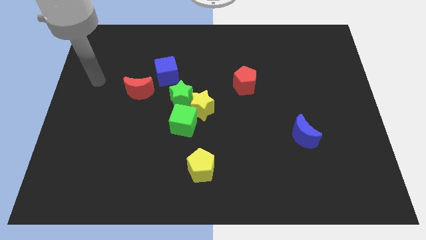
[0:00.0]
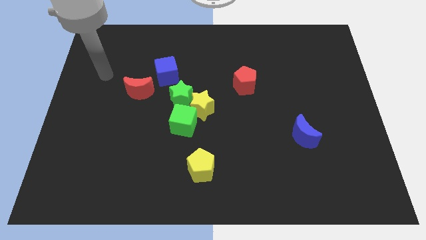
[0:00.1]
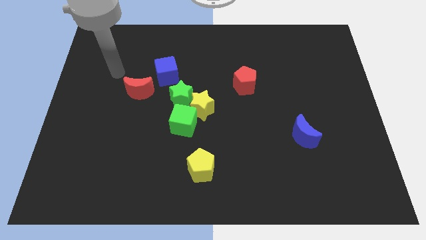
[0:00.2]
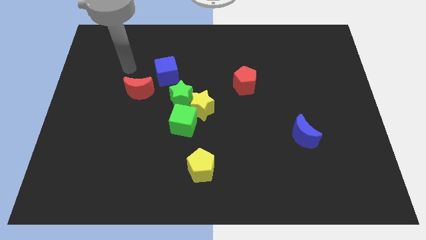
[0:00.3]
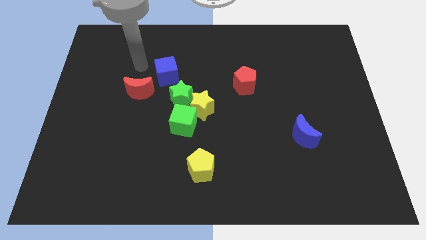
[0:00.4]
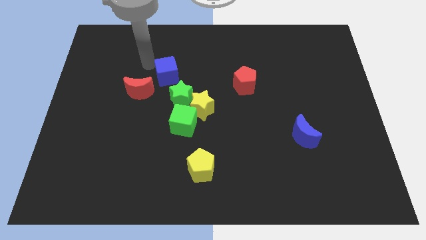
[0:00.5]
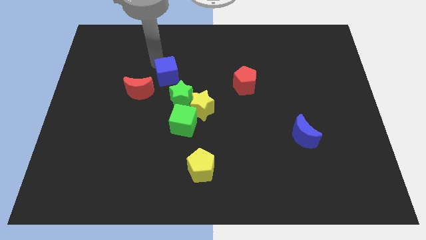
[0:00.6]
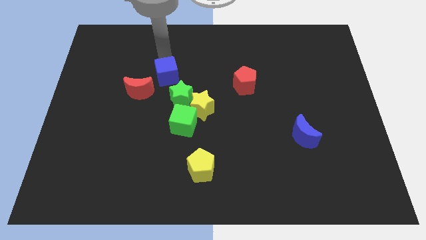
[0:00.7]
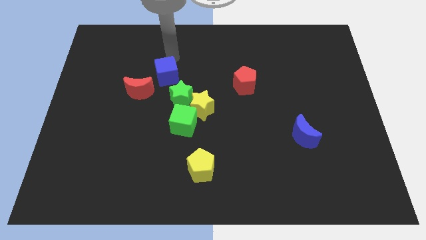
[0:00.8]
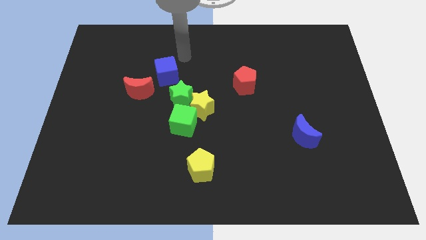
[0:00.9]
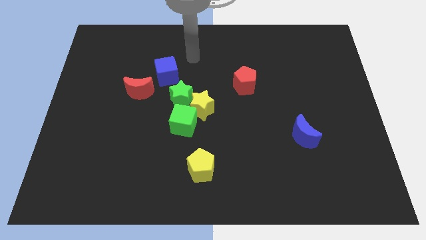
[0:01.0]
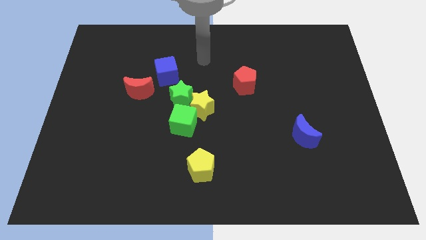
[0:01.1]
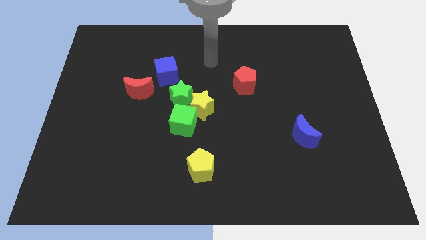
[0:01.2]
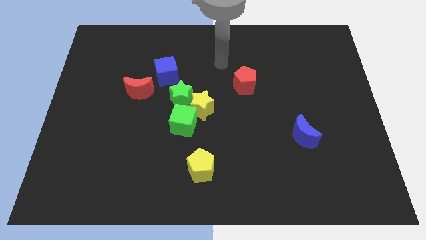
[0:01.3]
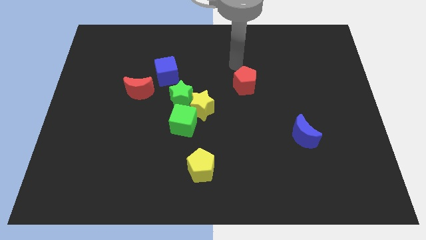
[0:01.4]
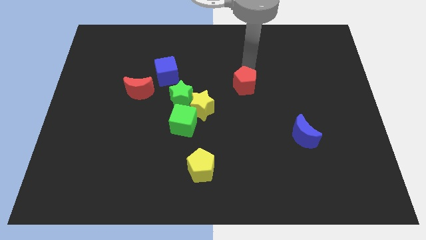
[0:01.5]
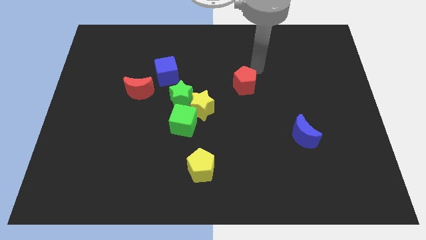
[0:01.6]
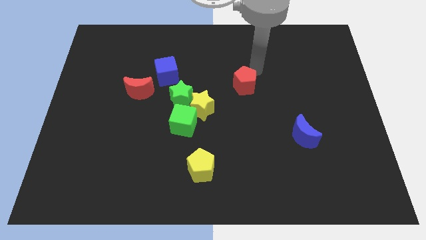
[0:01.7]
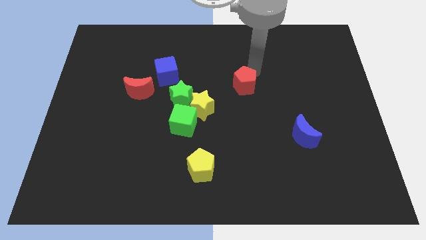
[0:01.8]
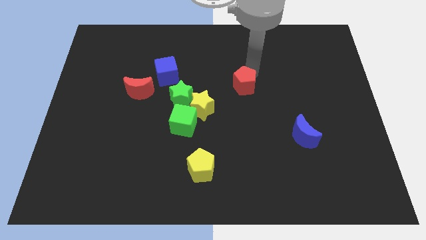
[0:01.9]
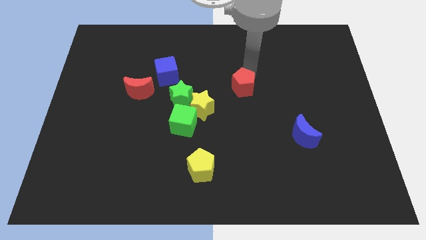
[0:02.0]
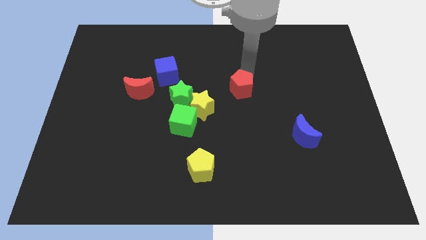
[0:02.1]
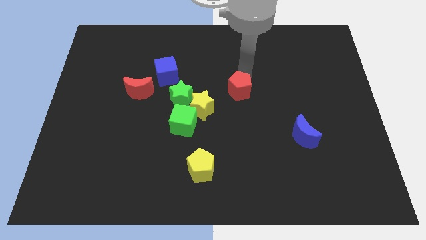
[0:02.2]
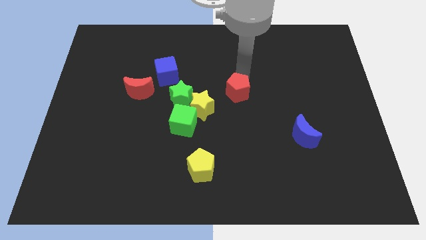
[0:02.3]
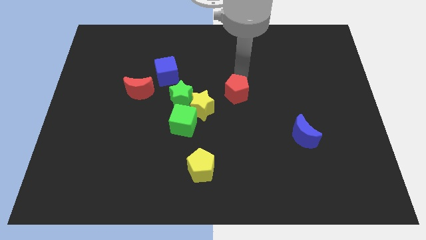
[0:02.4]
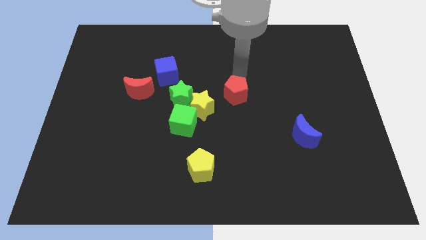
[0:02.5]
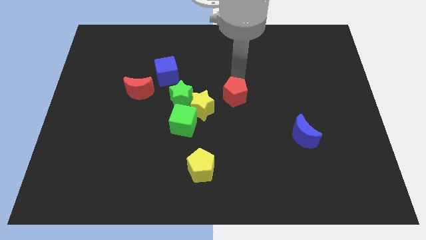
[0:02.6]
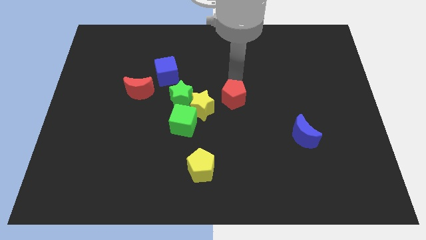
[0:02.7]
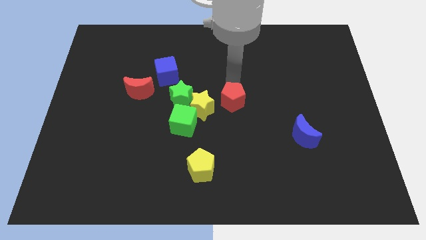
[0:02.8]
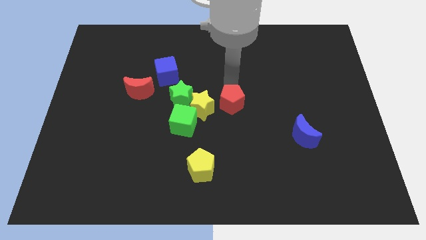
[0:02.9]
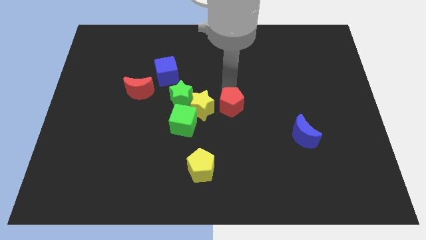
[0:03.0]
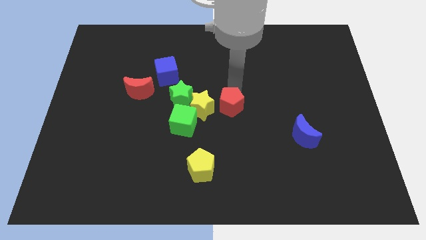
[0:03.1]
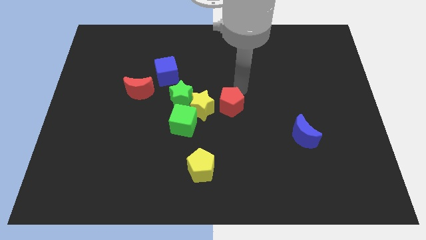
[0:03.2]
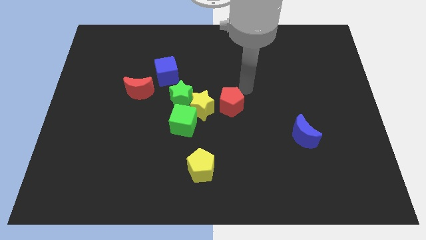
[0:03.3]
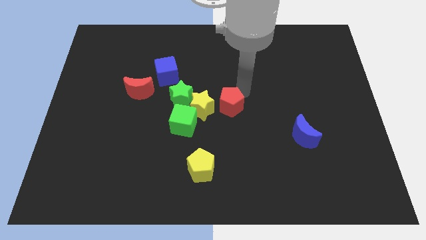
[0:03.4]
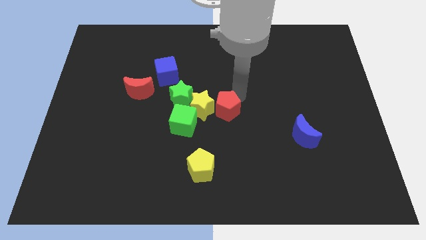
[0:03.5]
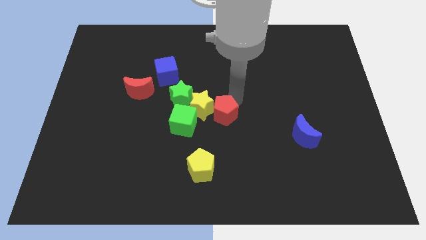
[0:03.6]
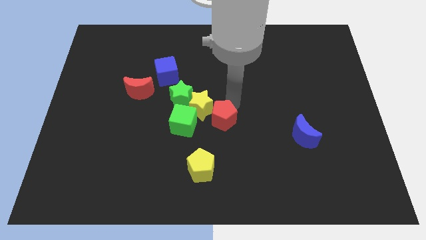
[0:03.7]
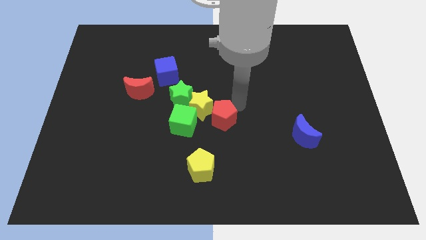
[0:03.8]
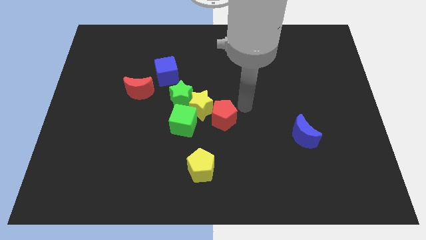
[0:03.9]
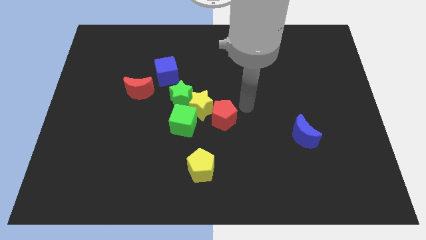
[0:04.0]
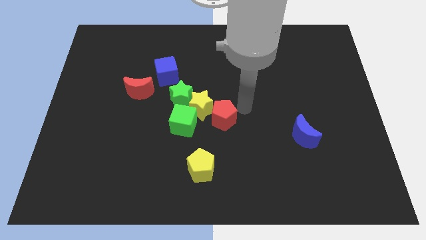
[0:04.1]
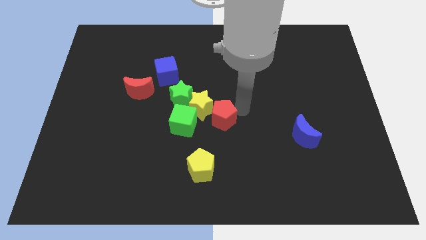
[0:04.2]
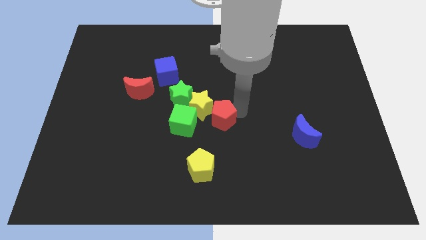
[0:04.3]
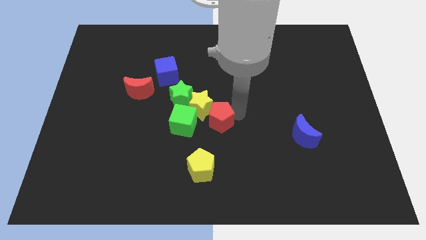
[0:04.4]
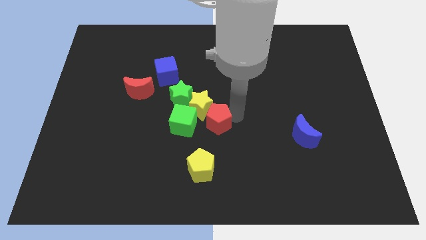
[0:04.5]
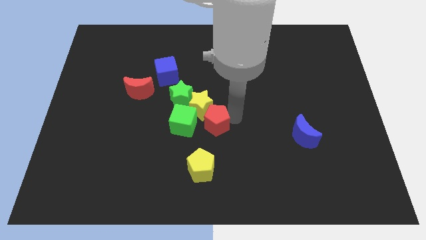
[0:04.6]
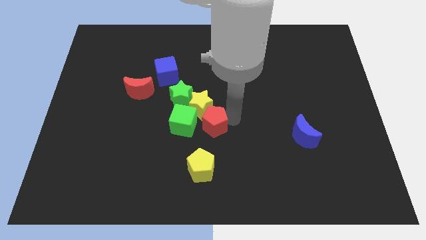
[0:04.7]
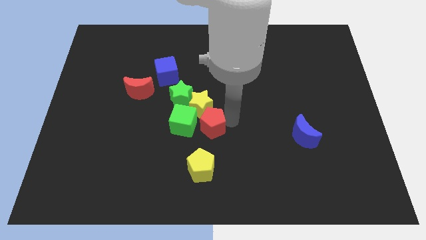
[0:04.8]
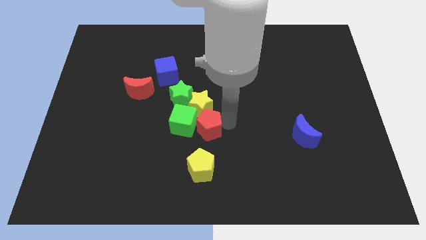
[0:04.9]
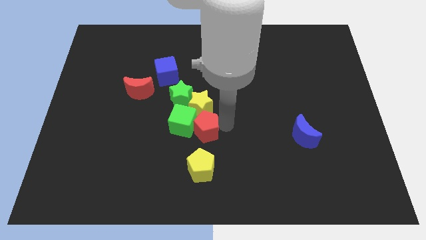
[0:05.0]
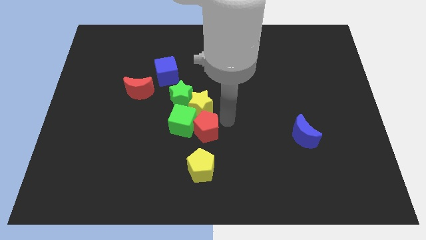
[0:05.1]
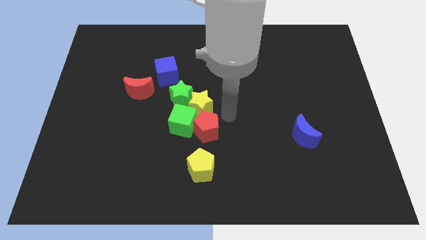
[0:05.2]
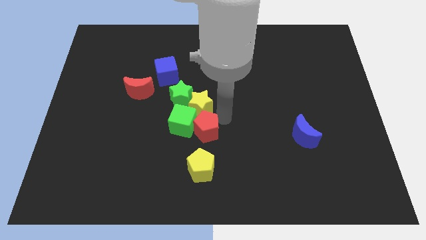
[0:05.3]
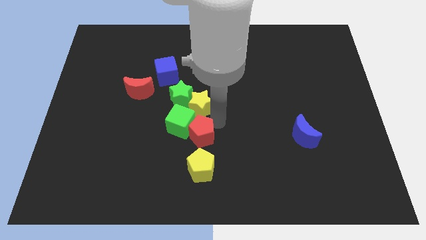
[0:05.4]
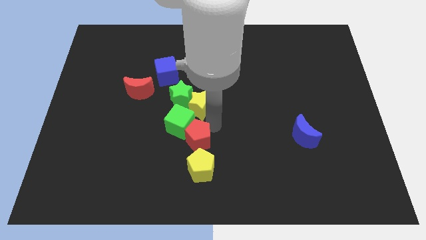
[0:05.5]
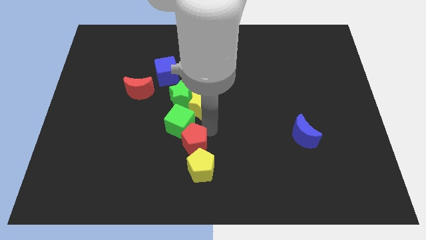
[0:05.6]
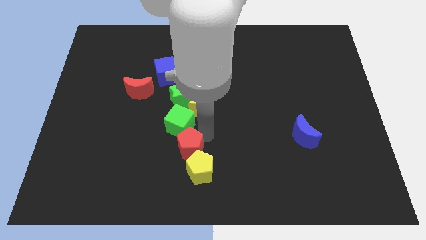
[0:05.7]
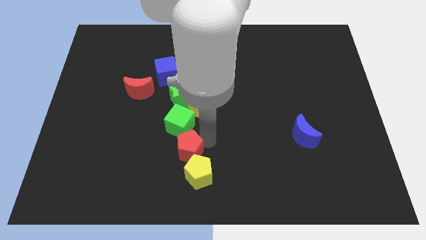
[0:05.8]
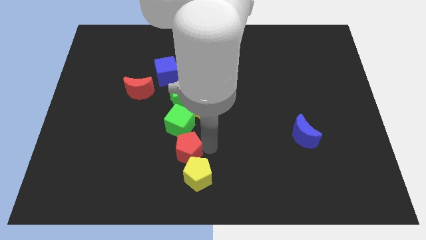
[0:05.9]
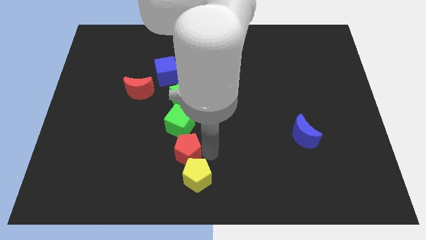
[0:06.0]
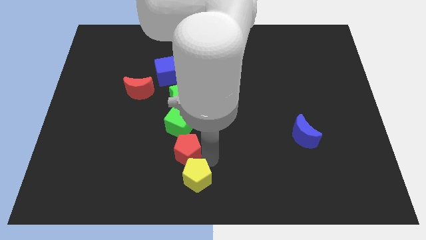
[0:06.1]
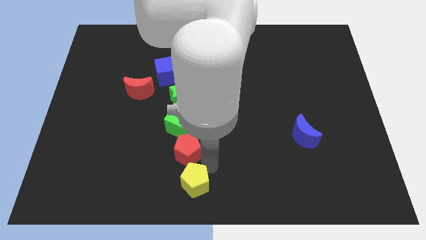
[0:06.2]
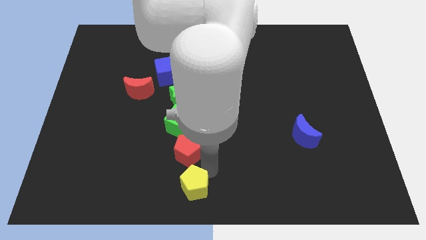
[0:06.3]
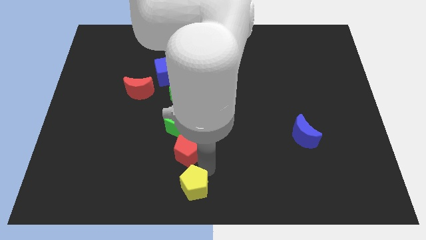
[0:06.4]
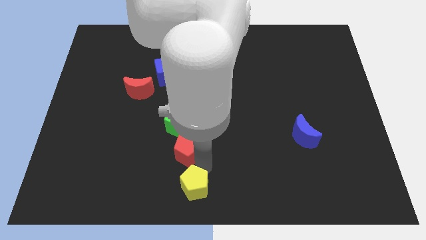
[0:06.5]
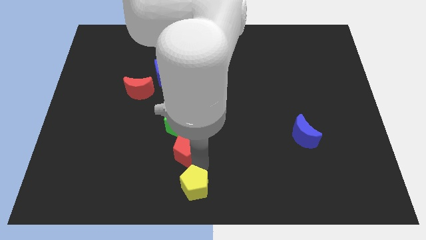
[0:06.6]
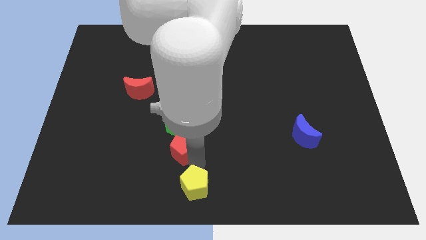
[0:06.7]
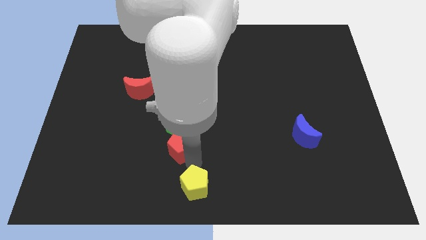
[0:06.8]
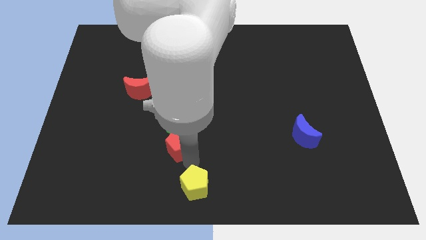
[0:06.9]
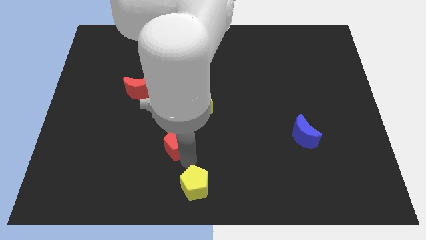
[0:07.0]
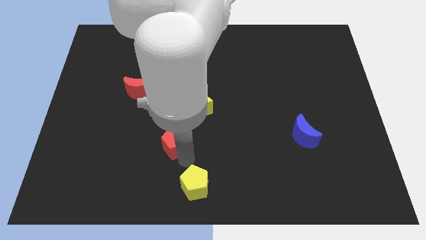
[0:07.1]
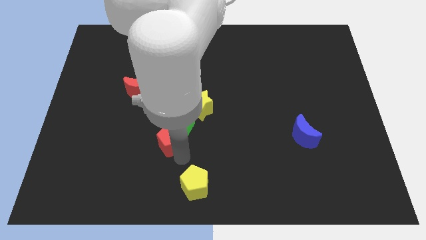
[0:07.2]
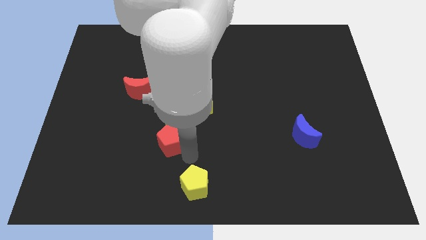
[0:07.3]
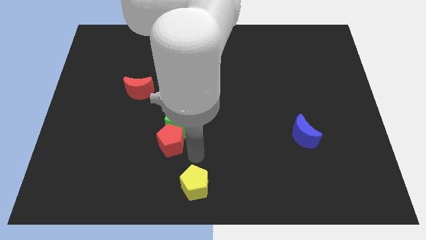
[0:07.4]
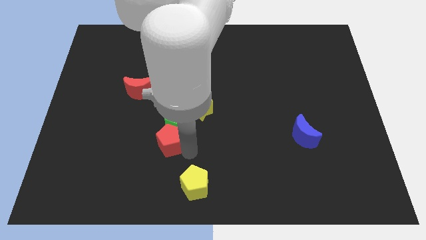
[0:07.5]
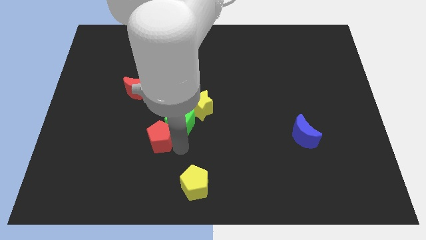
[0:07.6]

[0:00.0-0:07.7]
slide the red pentagon just left of the green cube
